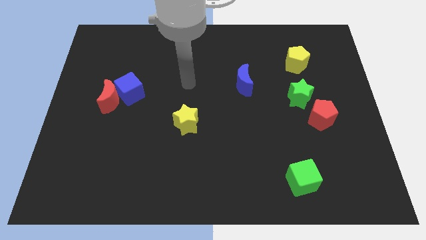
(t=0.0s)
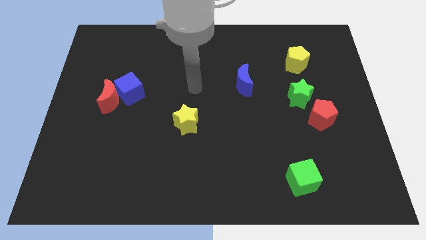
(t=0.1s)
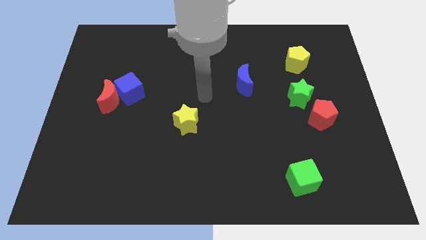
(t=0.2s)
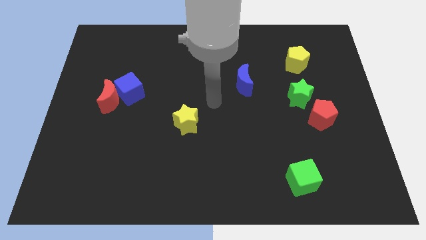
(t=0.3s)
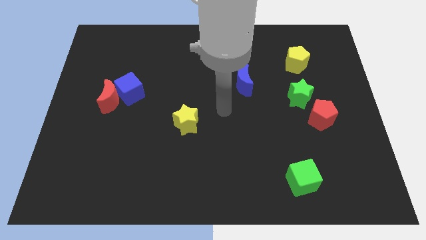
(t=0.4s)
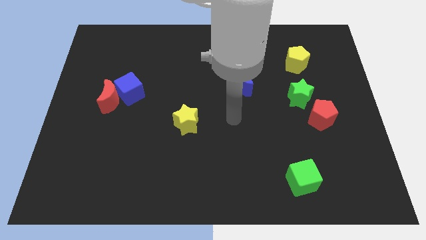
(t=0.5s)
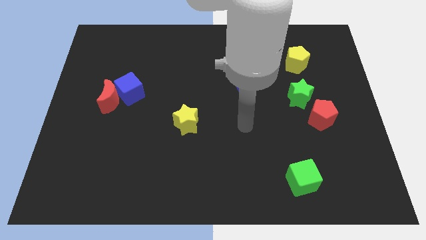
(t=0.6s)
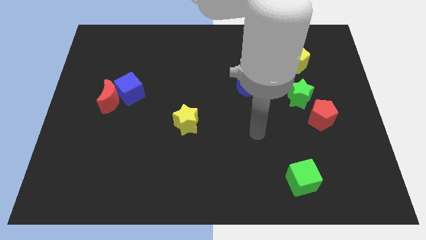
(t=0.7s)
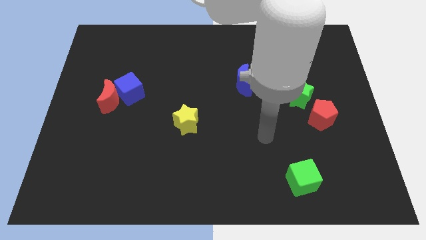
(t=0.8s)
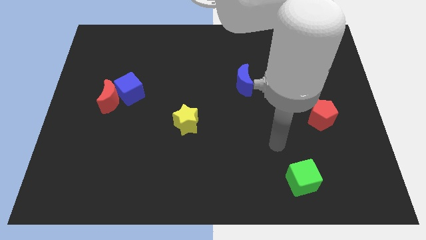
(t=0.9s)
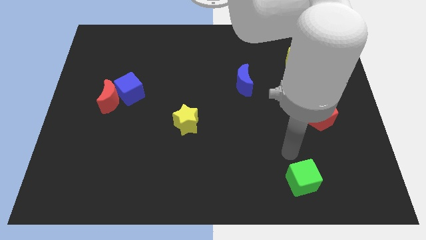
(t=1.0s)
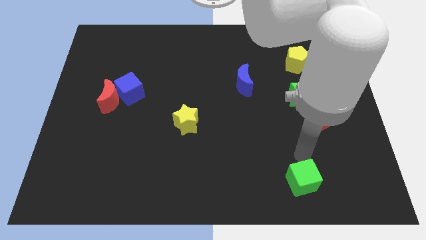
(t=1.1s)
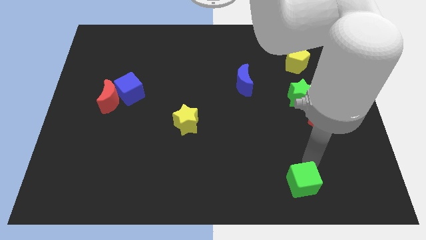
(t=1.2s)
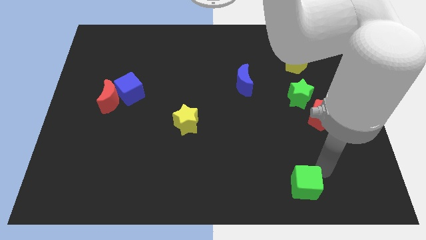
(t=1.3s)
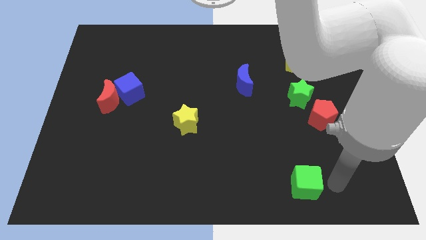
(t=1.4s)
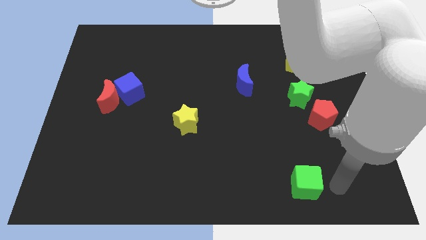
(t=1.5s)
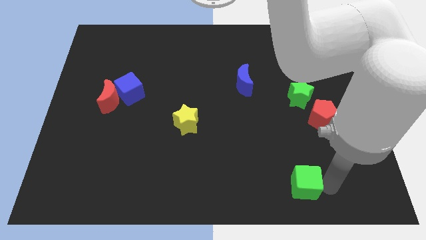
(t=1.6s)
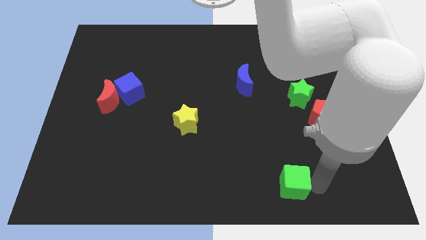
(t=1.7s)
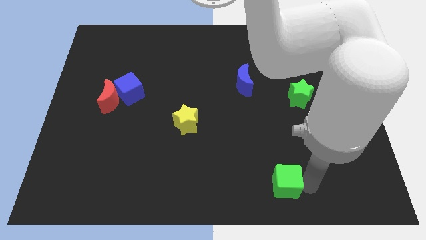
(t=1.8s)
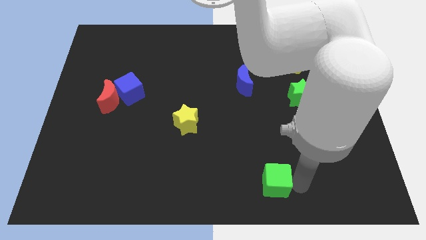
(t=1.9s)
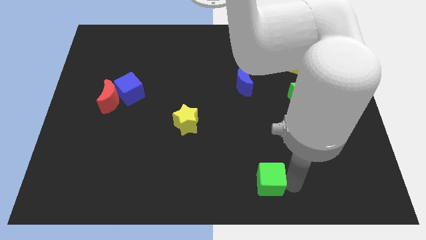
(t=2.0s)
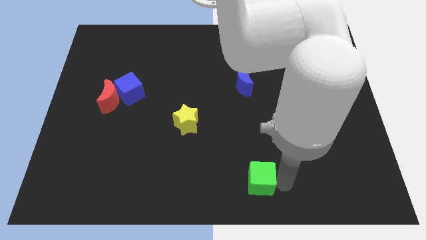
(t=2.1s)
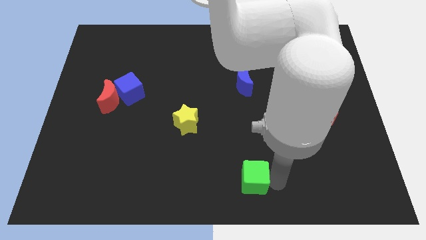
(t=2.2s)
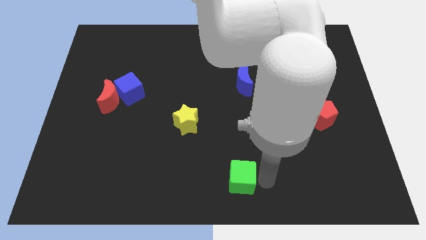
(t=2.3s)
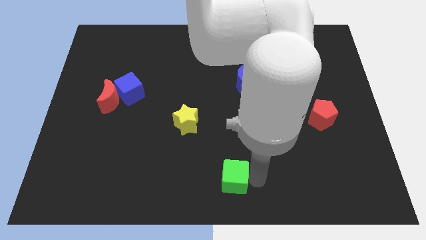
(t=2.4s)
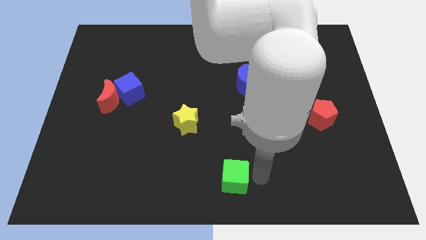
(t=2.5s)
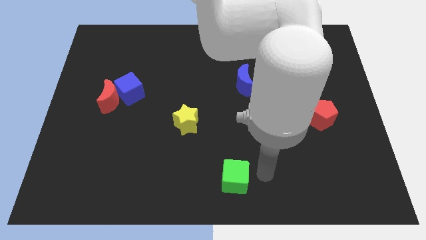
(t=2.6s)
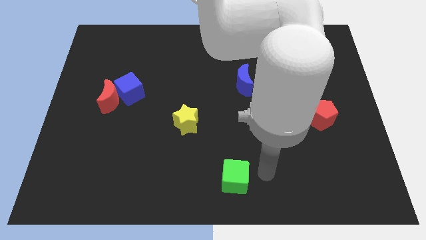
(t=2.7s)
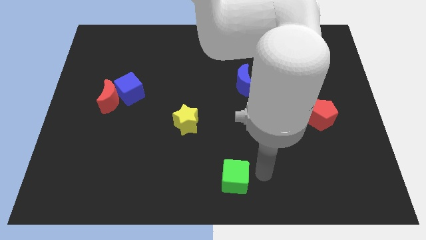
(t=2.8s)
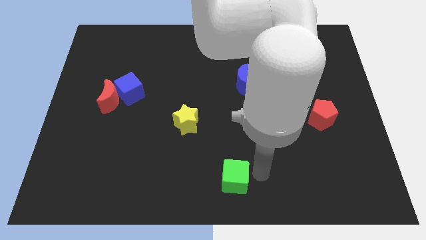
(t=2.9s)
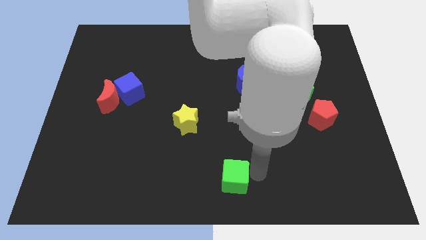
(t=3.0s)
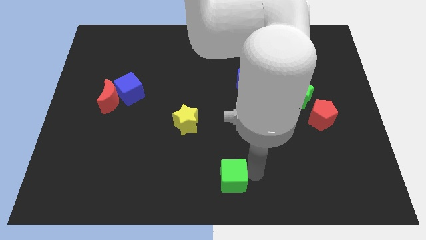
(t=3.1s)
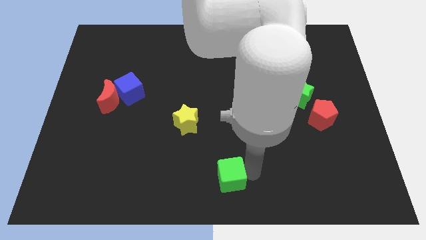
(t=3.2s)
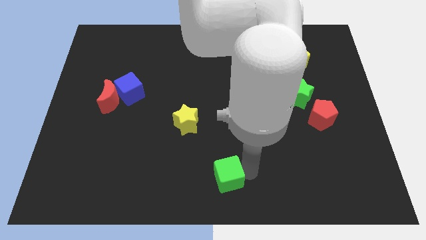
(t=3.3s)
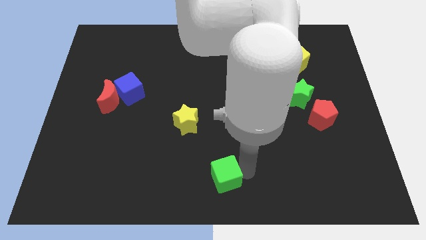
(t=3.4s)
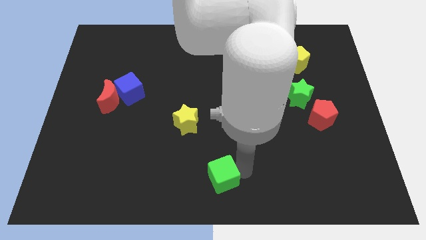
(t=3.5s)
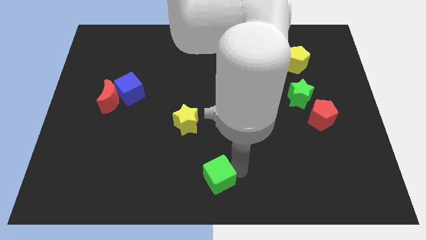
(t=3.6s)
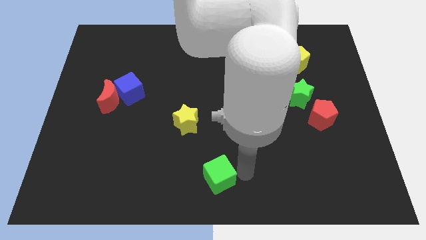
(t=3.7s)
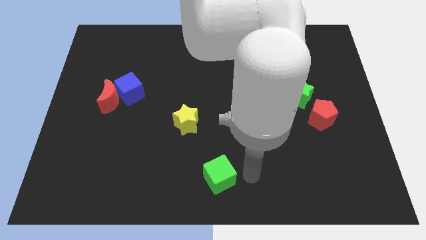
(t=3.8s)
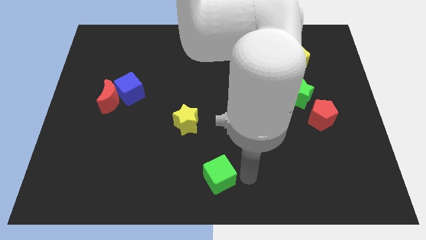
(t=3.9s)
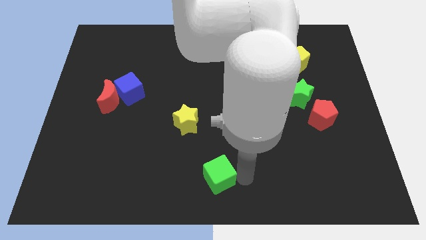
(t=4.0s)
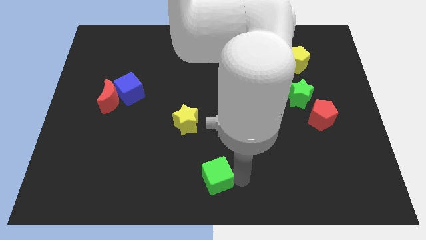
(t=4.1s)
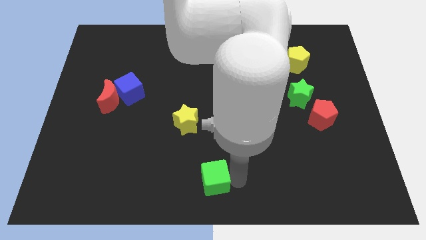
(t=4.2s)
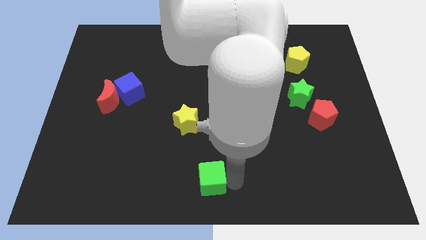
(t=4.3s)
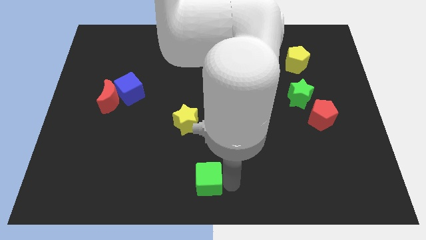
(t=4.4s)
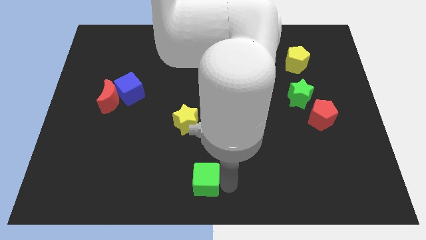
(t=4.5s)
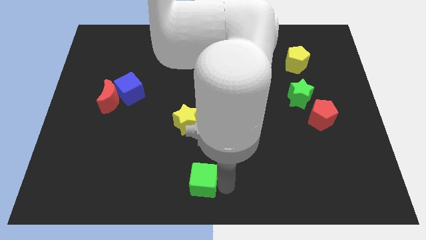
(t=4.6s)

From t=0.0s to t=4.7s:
push the green cube to the left

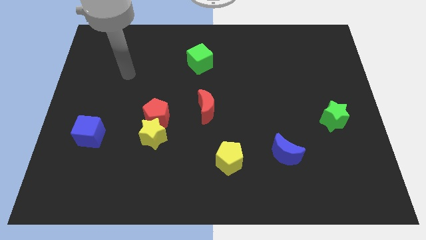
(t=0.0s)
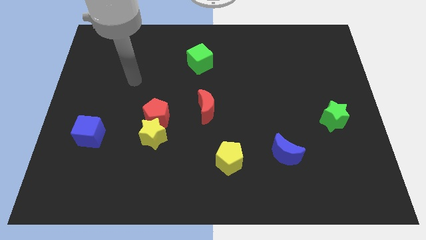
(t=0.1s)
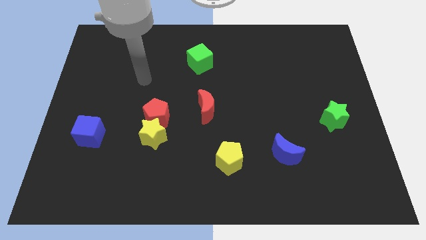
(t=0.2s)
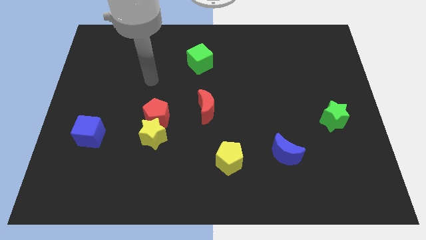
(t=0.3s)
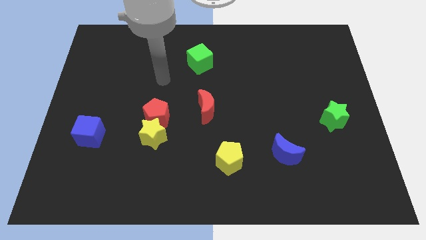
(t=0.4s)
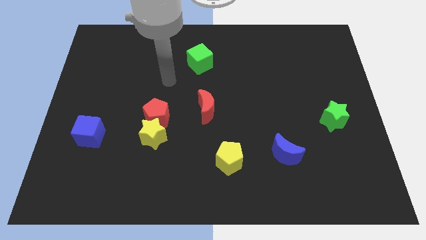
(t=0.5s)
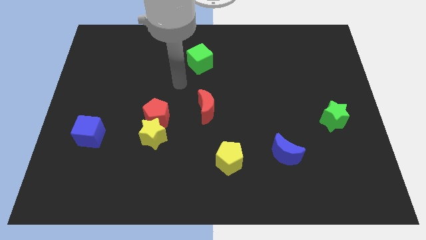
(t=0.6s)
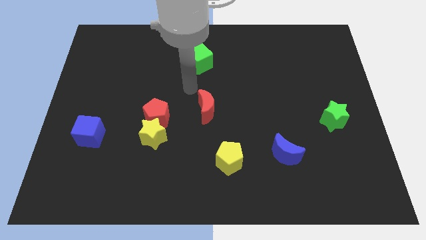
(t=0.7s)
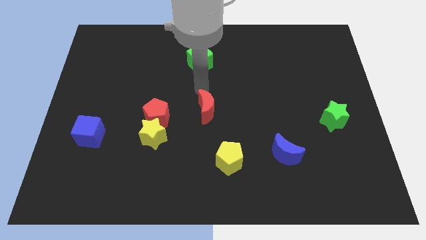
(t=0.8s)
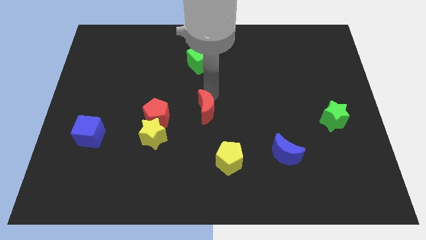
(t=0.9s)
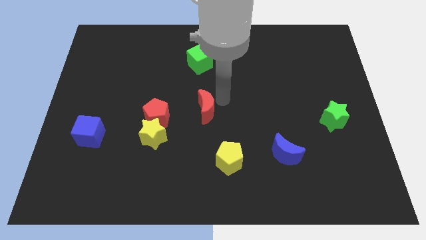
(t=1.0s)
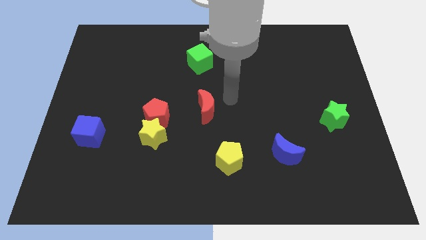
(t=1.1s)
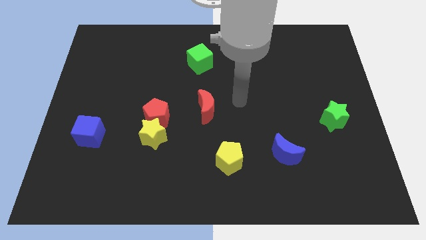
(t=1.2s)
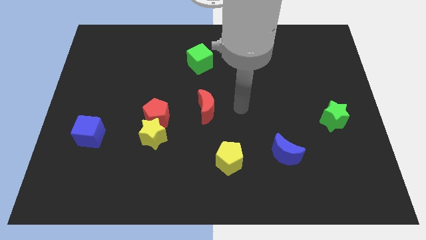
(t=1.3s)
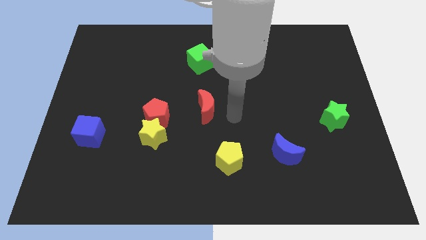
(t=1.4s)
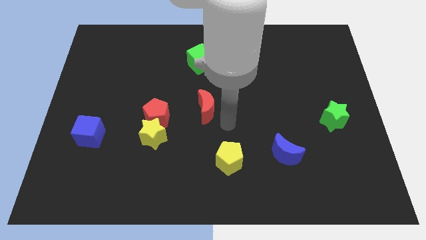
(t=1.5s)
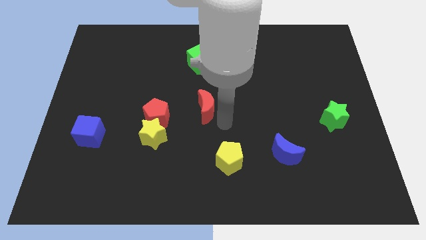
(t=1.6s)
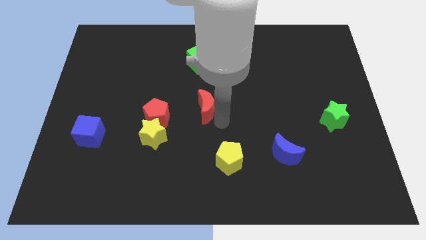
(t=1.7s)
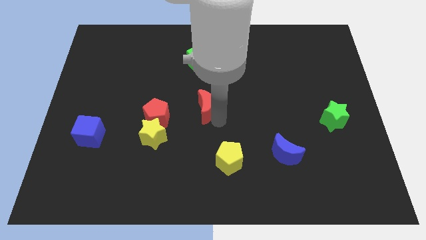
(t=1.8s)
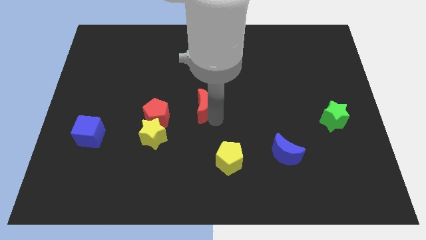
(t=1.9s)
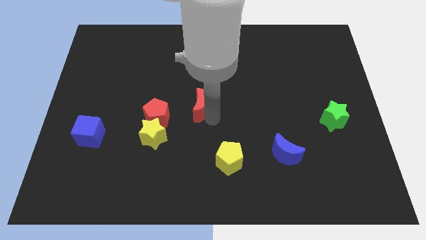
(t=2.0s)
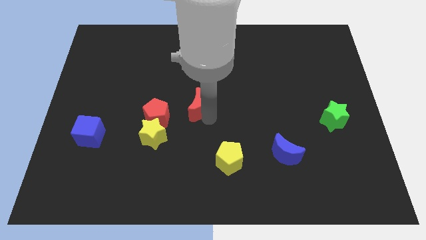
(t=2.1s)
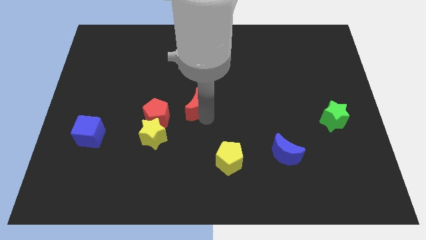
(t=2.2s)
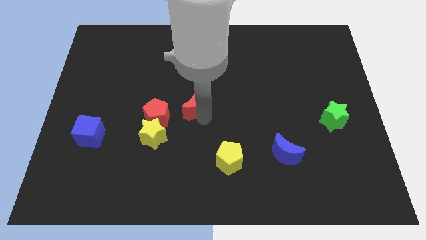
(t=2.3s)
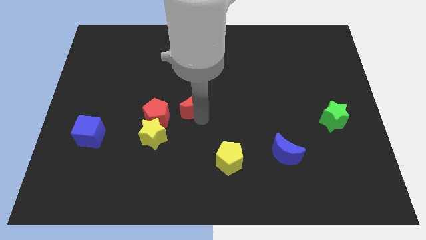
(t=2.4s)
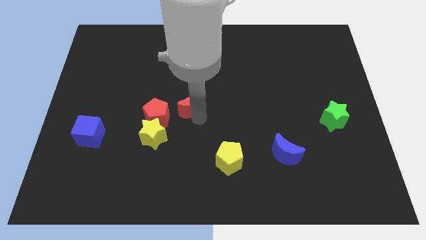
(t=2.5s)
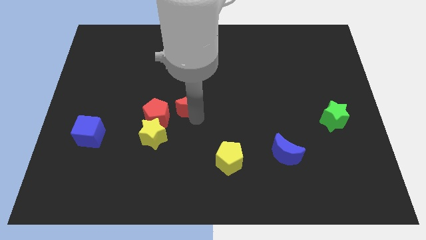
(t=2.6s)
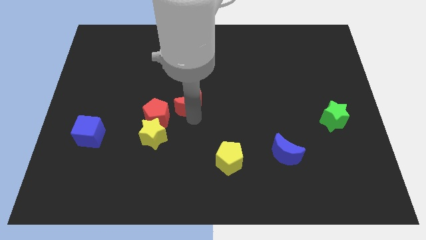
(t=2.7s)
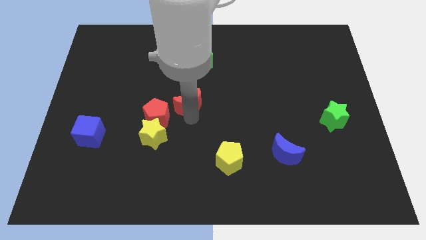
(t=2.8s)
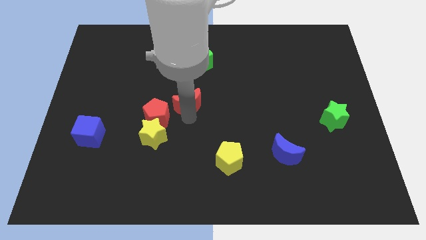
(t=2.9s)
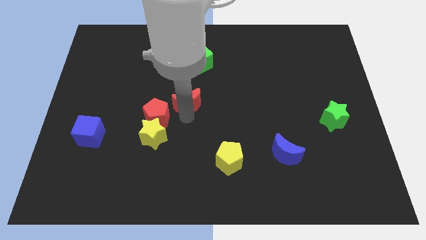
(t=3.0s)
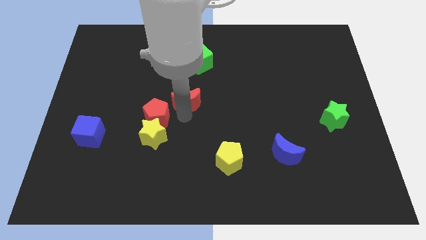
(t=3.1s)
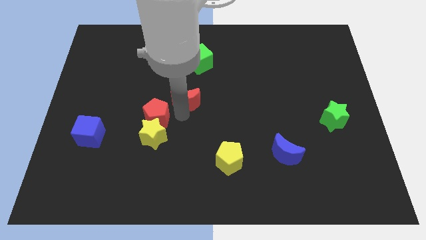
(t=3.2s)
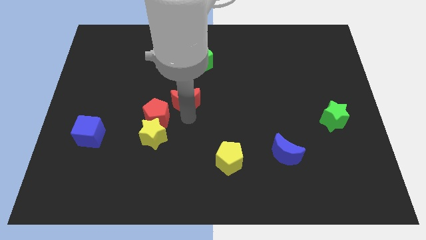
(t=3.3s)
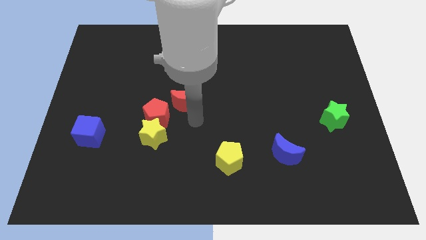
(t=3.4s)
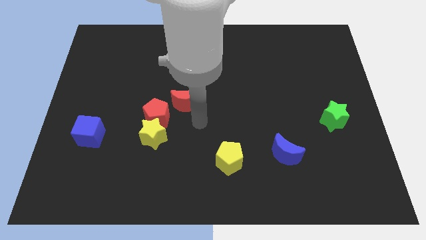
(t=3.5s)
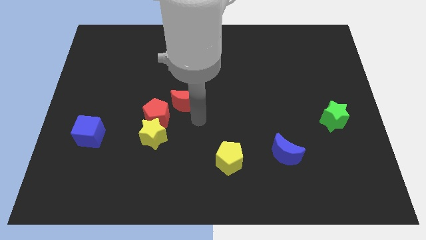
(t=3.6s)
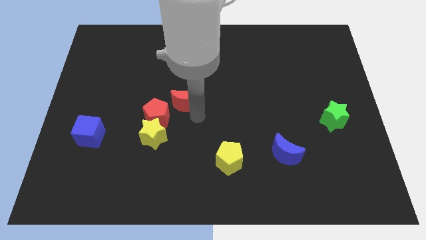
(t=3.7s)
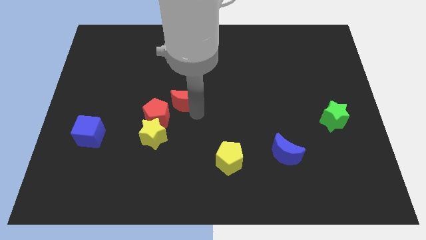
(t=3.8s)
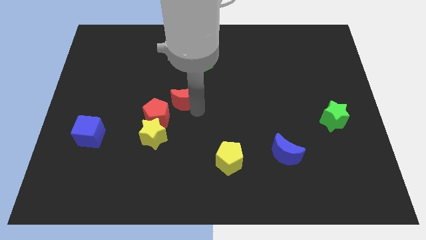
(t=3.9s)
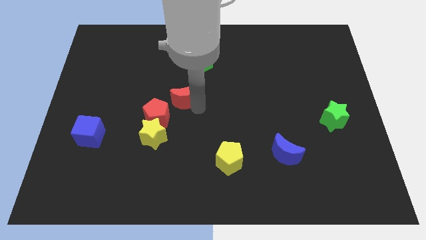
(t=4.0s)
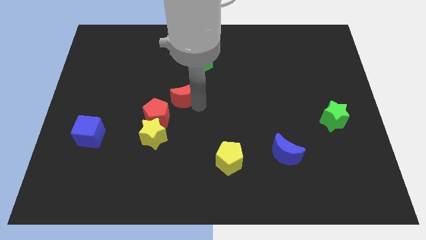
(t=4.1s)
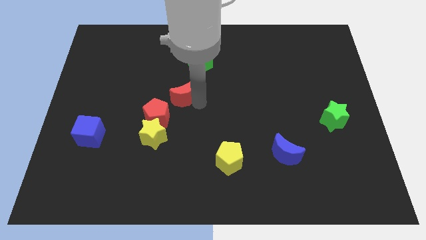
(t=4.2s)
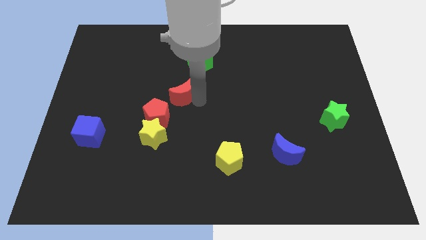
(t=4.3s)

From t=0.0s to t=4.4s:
push the red moon diagonally up and to the left somewhat
